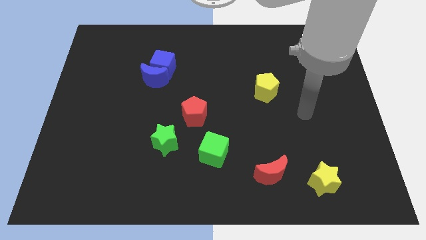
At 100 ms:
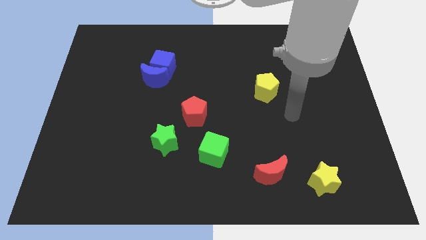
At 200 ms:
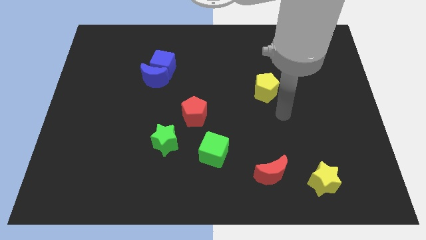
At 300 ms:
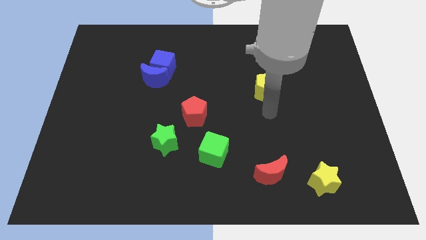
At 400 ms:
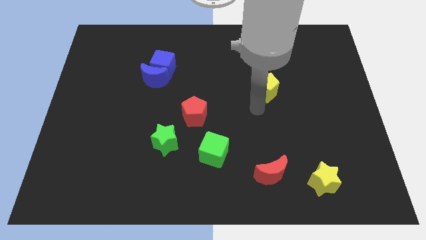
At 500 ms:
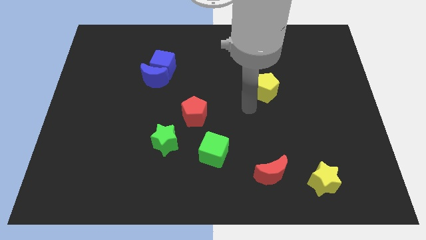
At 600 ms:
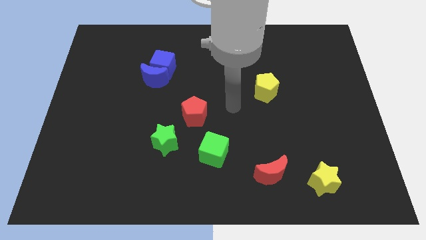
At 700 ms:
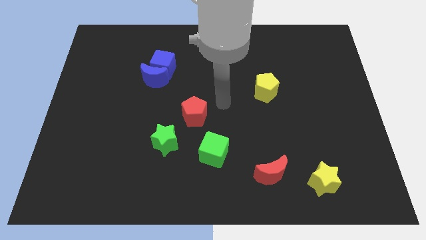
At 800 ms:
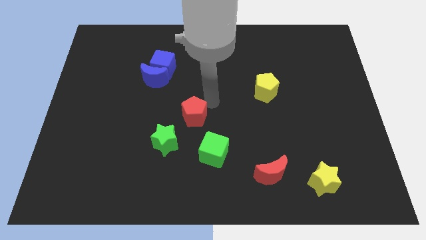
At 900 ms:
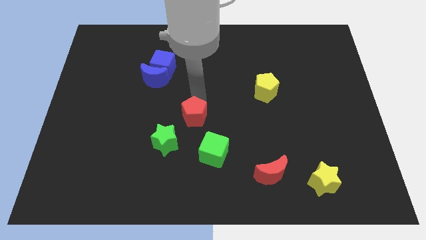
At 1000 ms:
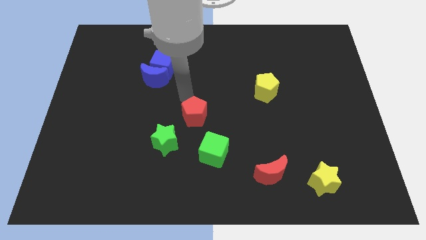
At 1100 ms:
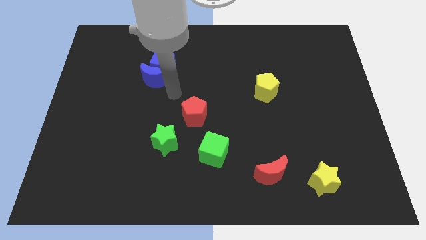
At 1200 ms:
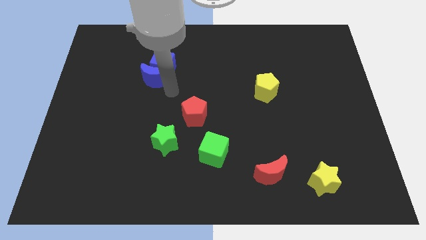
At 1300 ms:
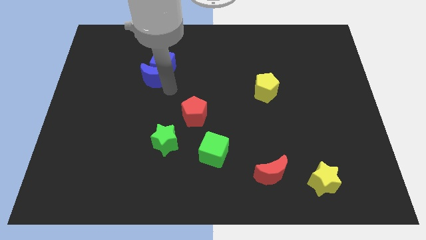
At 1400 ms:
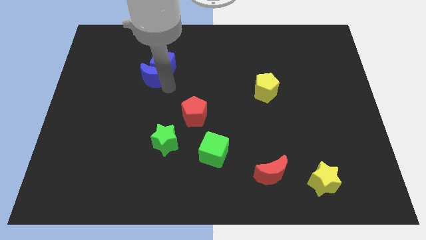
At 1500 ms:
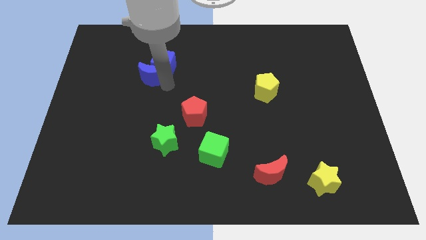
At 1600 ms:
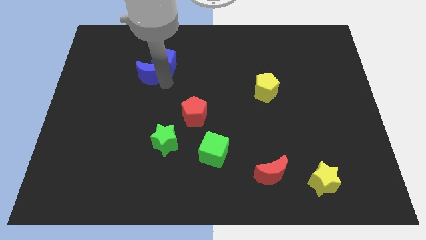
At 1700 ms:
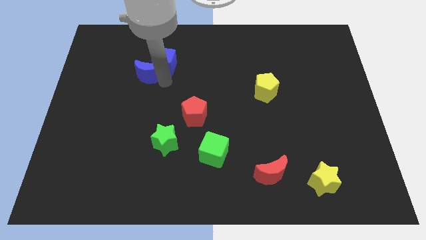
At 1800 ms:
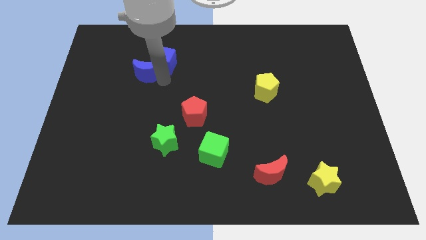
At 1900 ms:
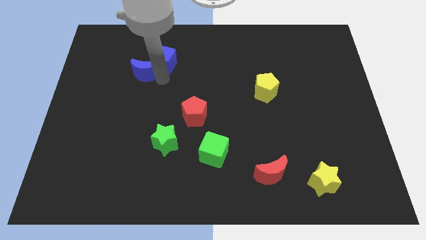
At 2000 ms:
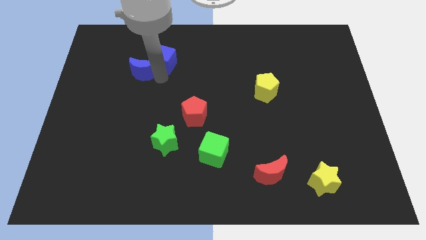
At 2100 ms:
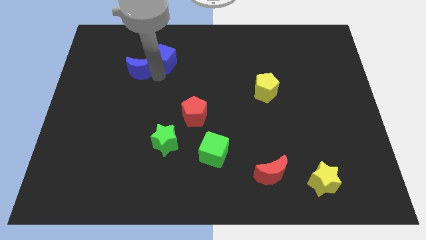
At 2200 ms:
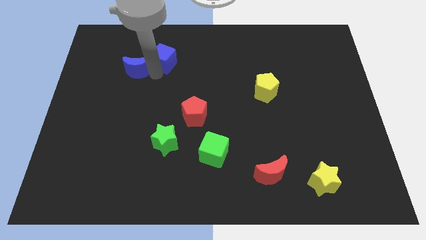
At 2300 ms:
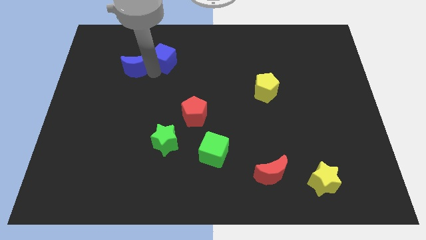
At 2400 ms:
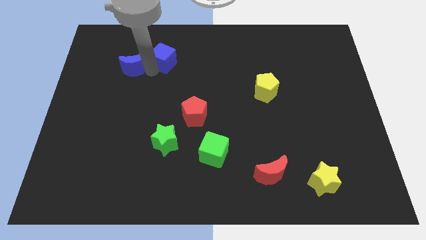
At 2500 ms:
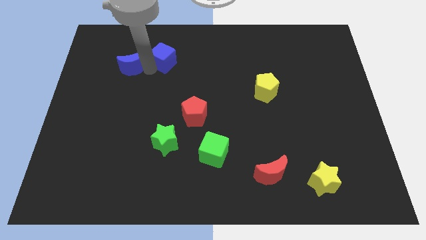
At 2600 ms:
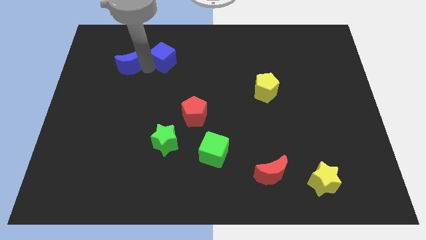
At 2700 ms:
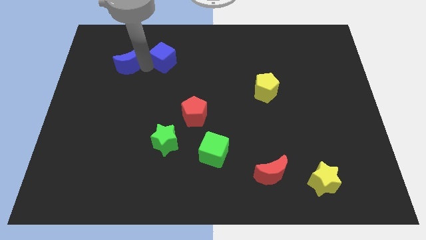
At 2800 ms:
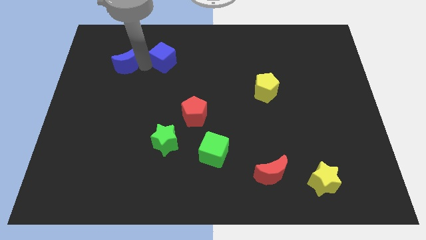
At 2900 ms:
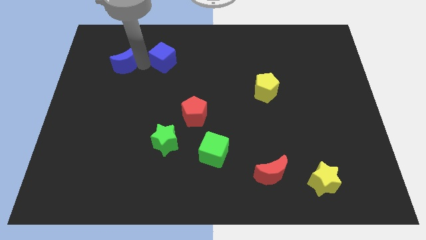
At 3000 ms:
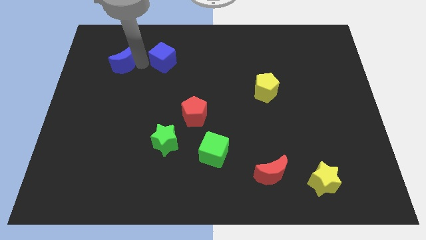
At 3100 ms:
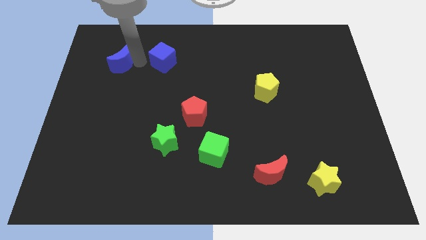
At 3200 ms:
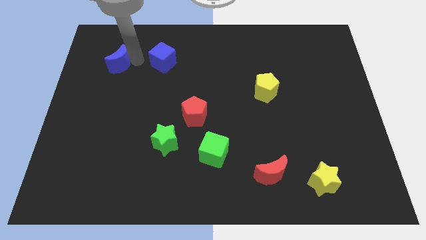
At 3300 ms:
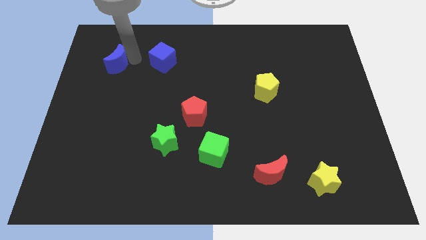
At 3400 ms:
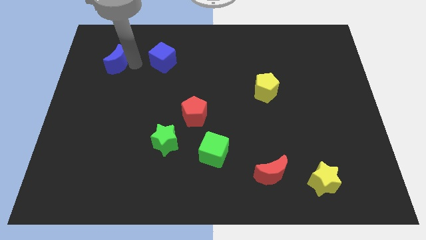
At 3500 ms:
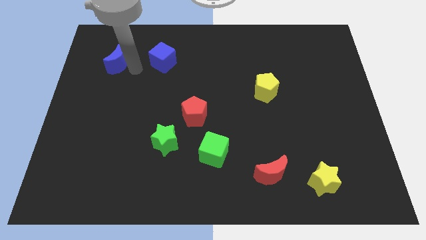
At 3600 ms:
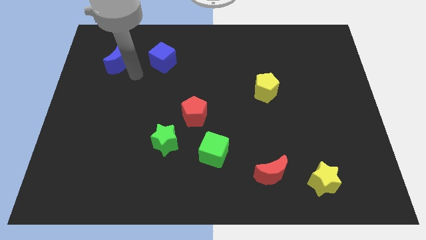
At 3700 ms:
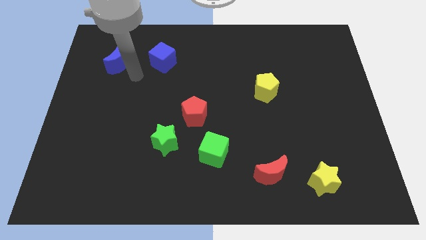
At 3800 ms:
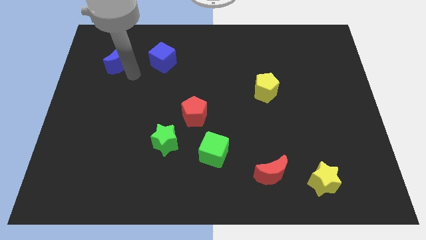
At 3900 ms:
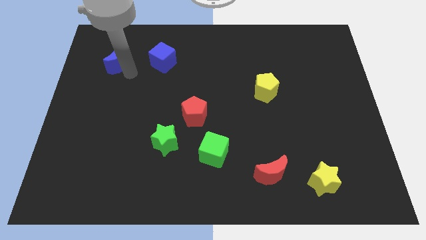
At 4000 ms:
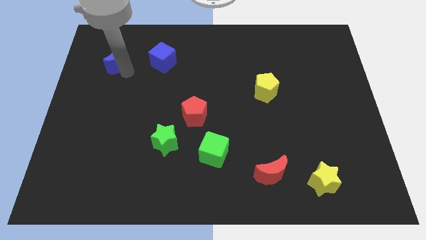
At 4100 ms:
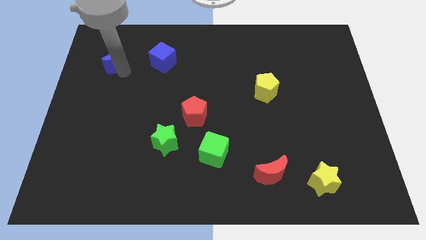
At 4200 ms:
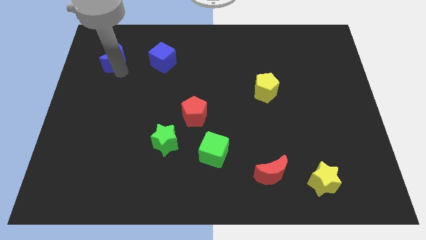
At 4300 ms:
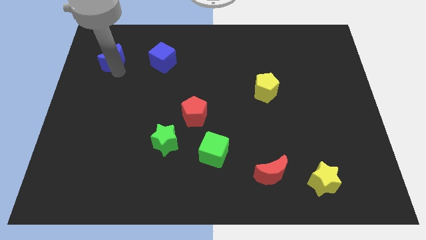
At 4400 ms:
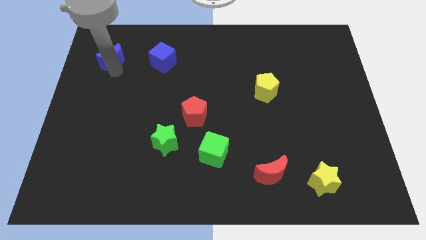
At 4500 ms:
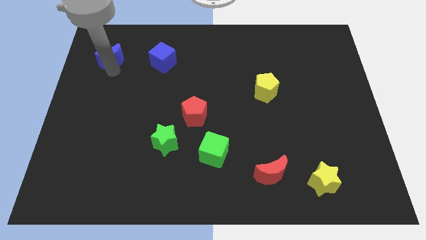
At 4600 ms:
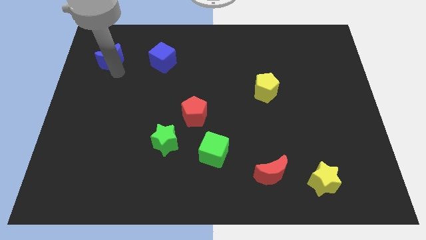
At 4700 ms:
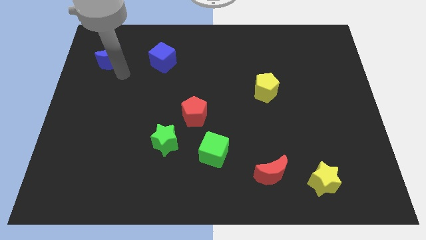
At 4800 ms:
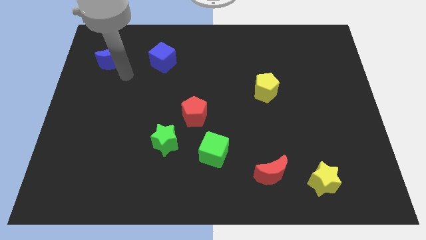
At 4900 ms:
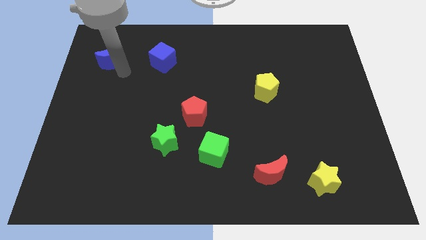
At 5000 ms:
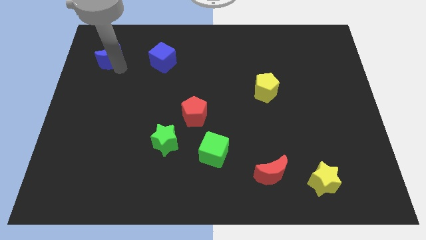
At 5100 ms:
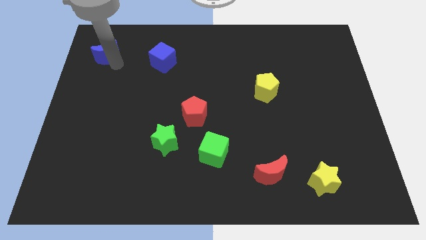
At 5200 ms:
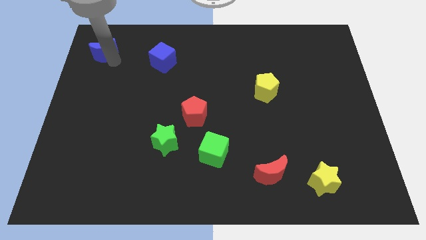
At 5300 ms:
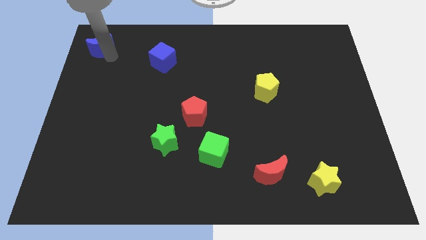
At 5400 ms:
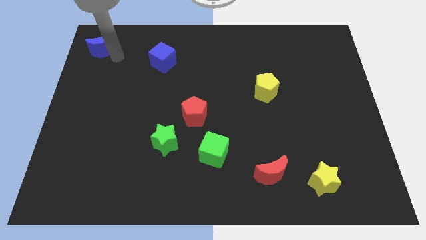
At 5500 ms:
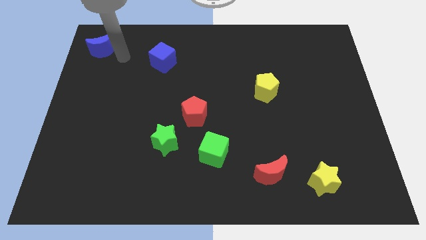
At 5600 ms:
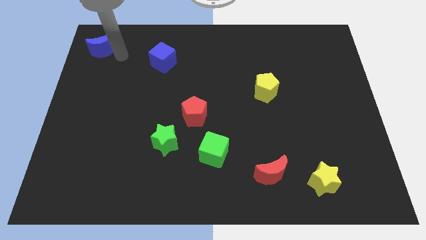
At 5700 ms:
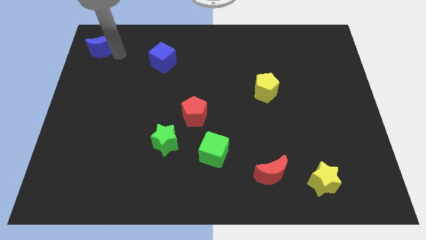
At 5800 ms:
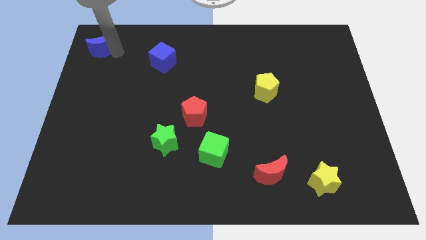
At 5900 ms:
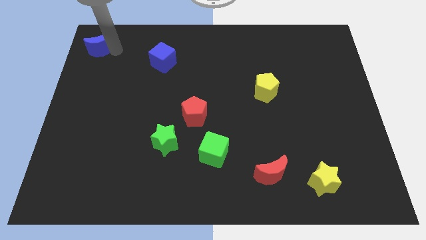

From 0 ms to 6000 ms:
put the blue moon to the top left of the board

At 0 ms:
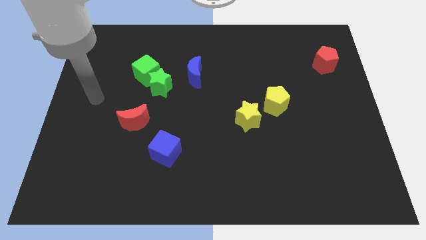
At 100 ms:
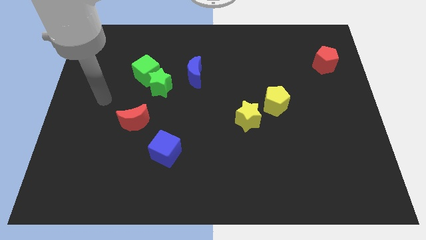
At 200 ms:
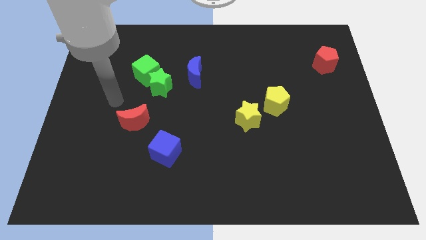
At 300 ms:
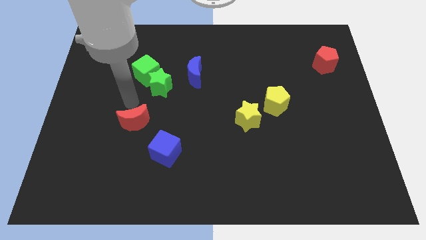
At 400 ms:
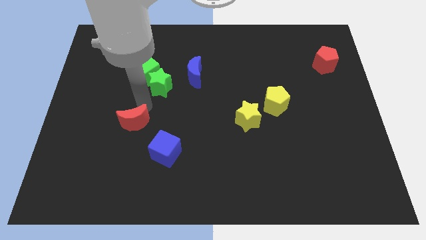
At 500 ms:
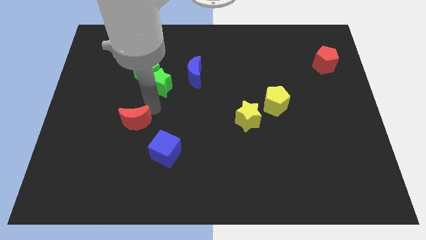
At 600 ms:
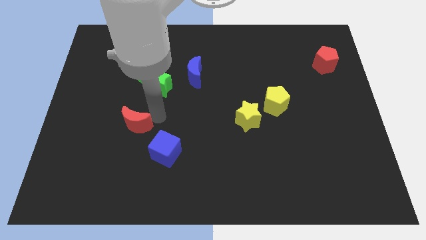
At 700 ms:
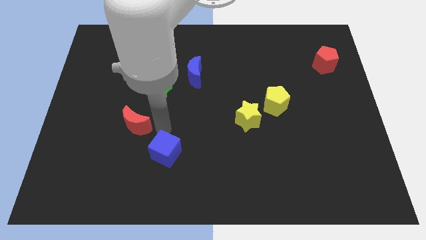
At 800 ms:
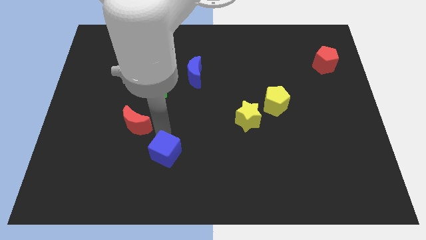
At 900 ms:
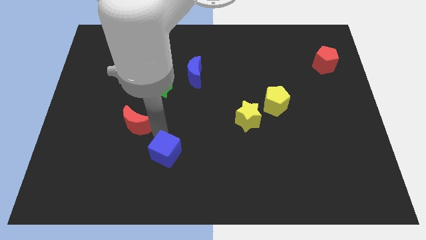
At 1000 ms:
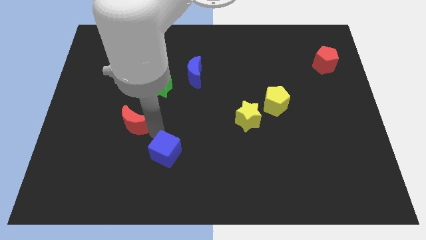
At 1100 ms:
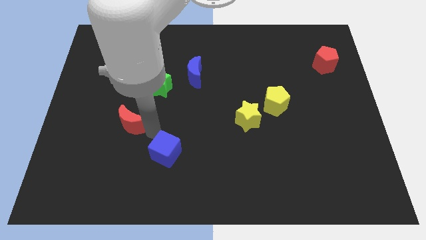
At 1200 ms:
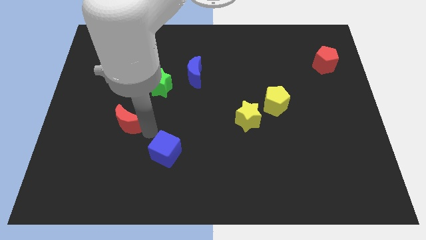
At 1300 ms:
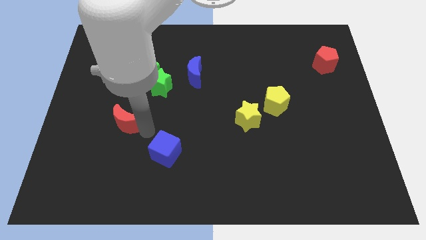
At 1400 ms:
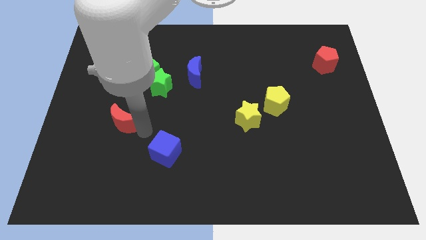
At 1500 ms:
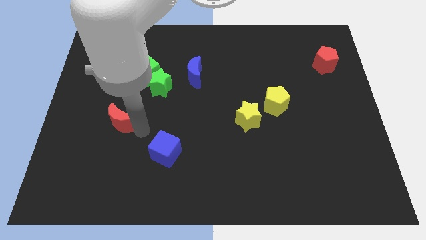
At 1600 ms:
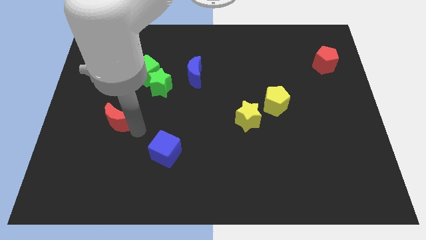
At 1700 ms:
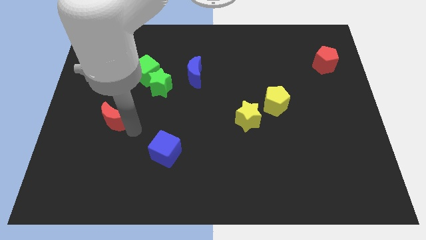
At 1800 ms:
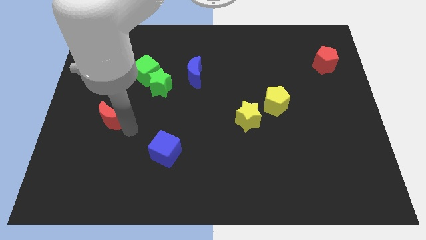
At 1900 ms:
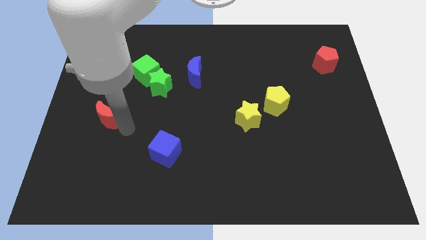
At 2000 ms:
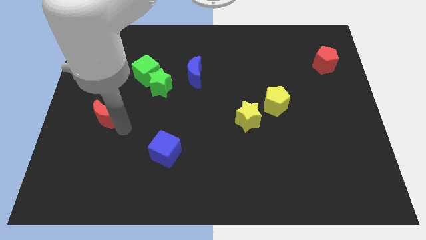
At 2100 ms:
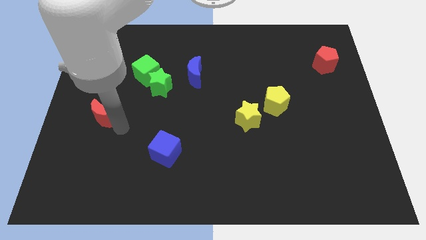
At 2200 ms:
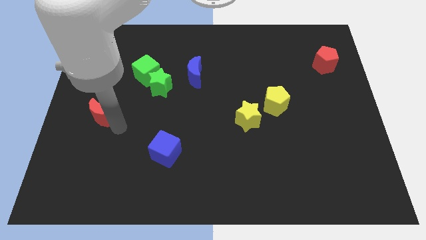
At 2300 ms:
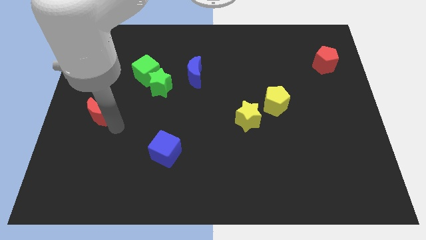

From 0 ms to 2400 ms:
put the red moon to the left side
